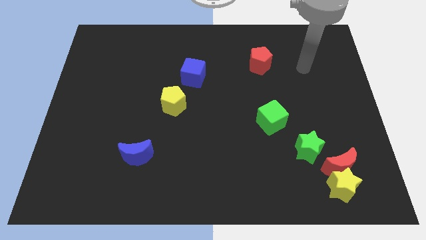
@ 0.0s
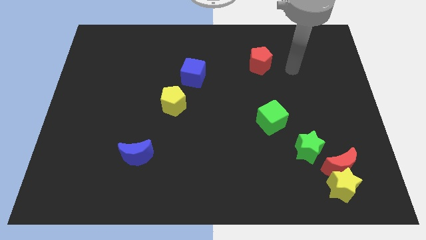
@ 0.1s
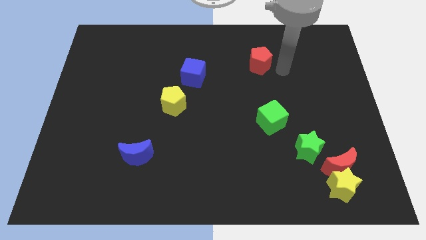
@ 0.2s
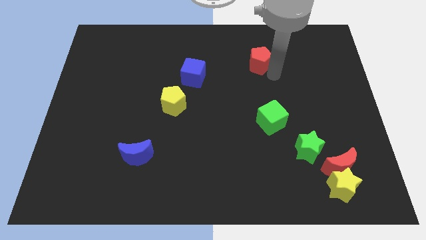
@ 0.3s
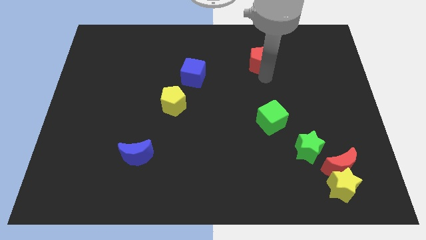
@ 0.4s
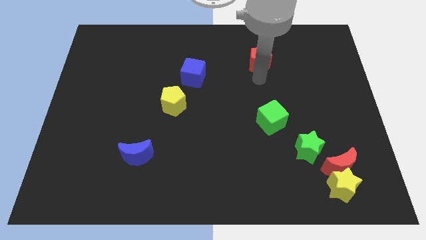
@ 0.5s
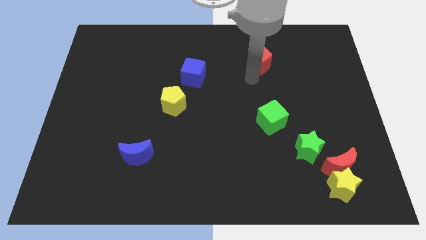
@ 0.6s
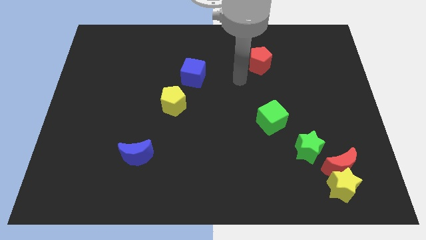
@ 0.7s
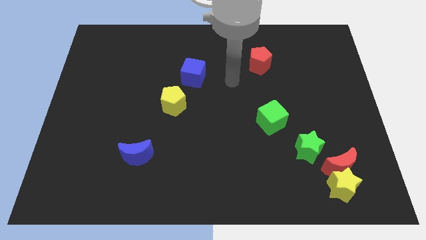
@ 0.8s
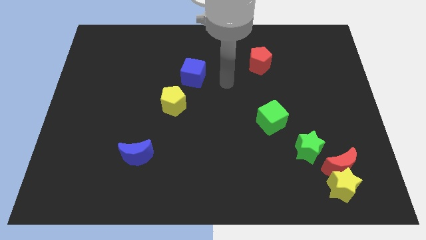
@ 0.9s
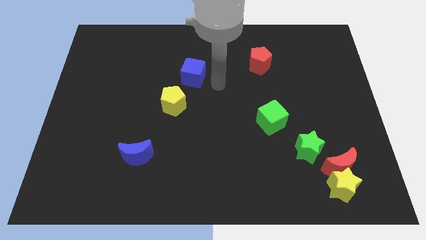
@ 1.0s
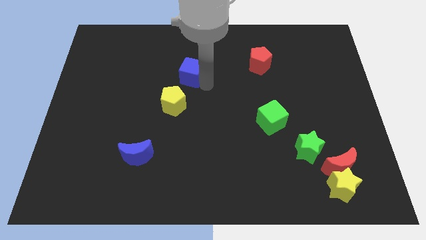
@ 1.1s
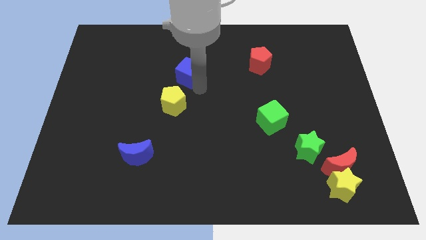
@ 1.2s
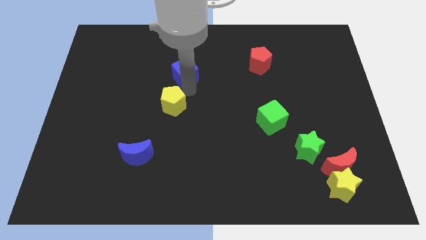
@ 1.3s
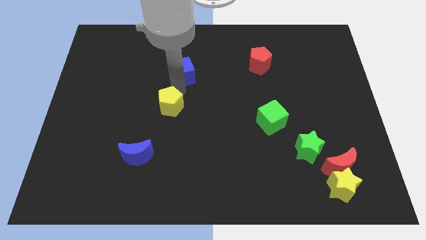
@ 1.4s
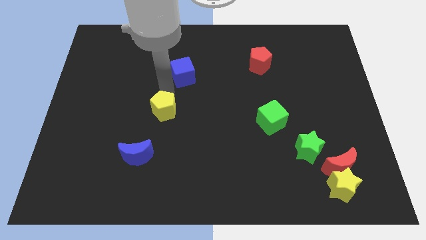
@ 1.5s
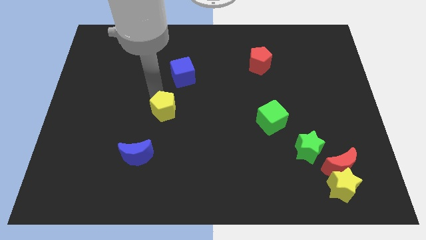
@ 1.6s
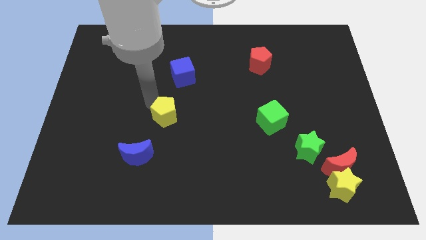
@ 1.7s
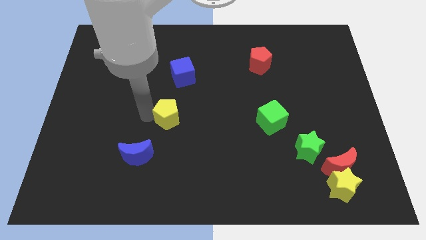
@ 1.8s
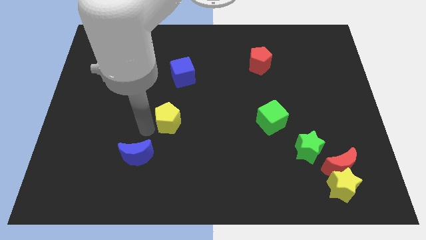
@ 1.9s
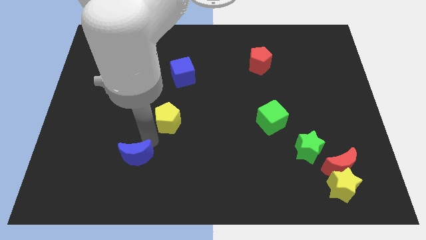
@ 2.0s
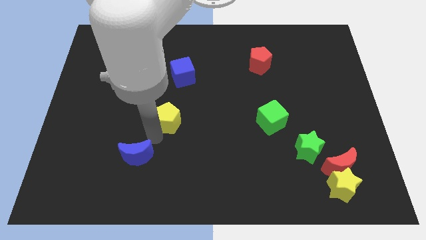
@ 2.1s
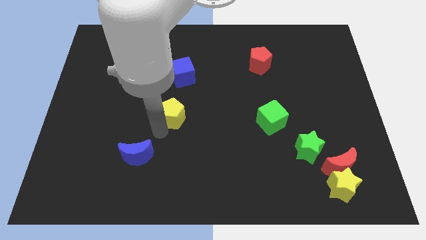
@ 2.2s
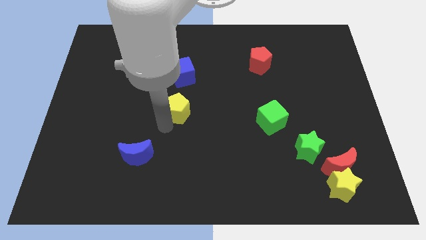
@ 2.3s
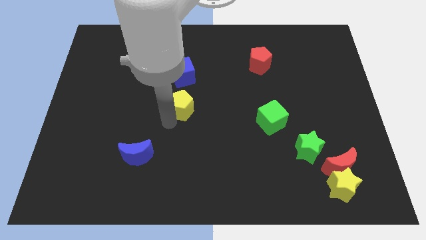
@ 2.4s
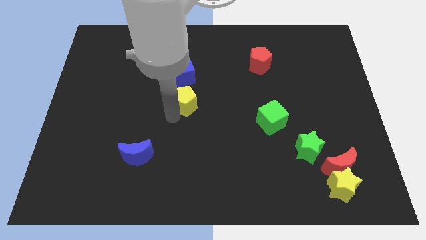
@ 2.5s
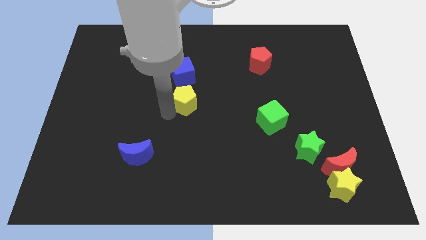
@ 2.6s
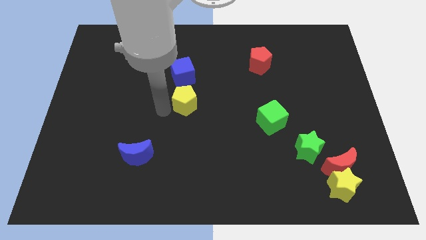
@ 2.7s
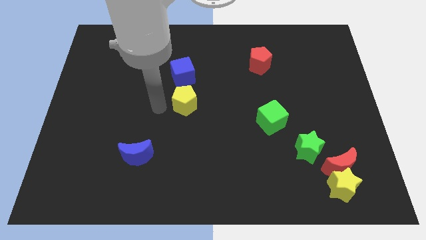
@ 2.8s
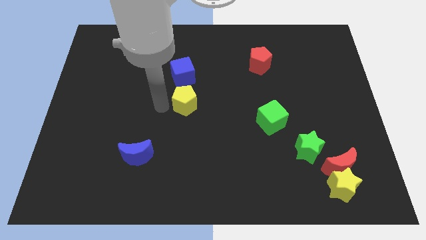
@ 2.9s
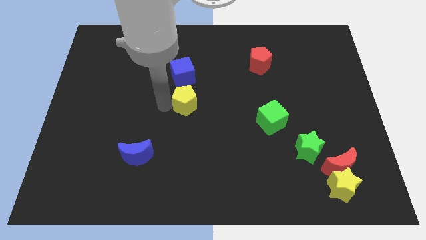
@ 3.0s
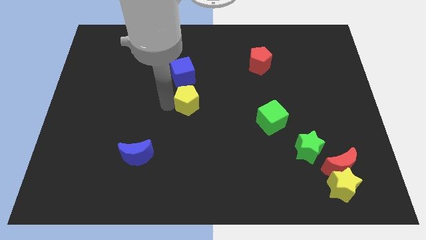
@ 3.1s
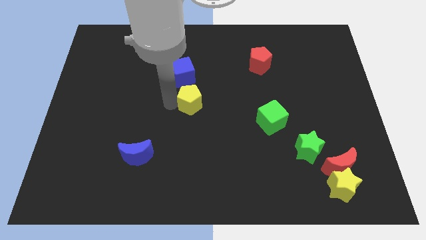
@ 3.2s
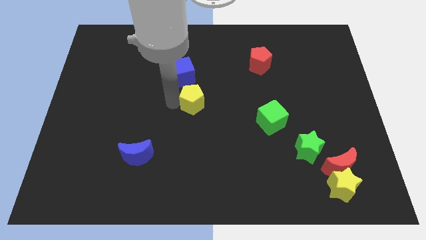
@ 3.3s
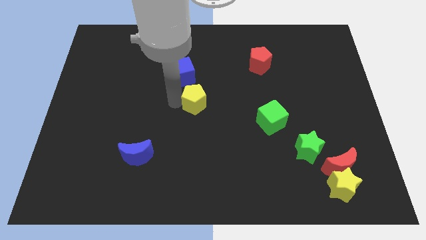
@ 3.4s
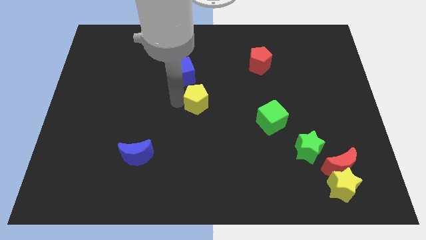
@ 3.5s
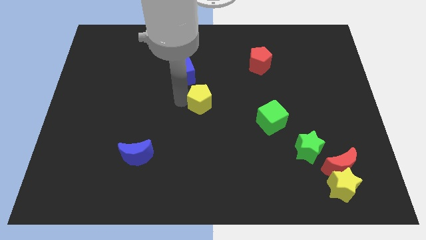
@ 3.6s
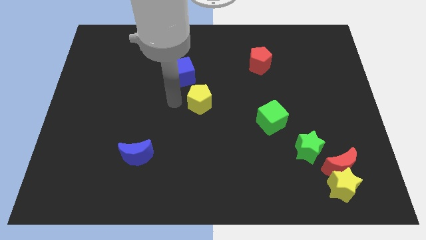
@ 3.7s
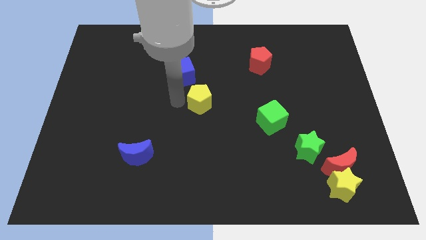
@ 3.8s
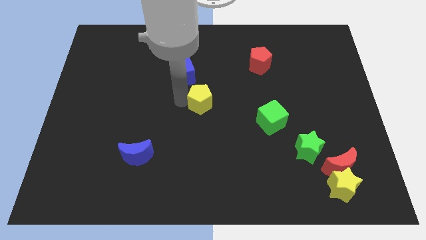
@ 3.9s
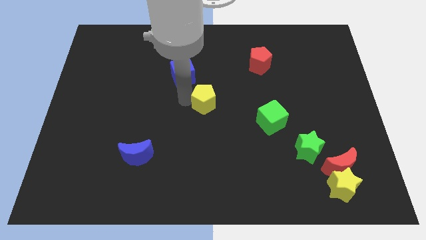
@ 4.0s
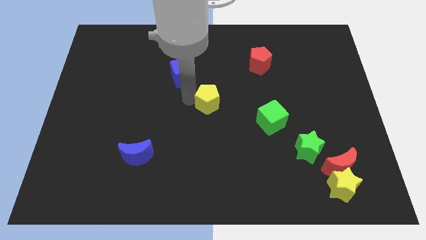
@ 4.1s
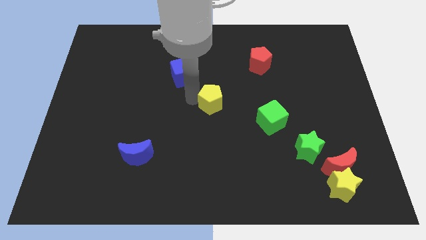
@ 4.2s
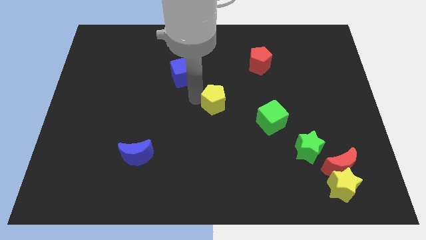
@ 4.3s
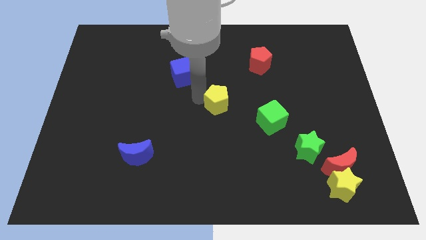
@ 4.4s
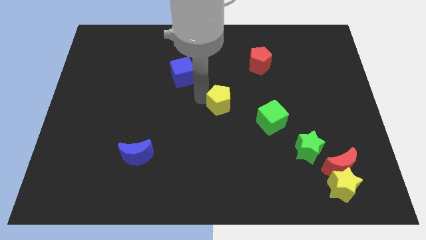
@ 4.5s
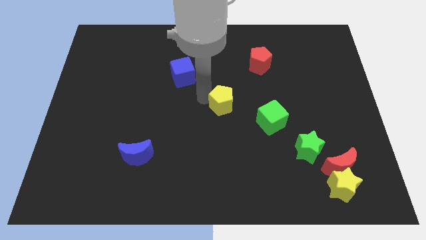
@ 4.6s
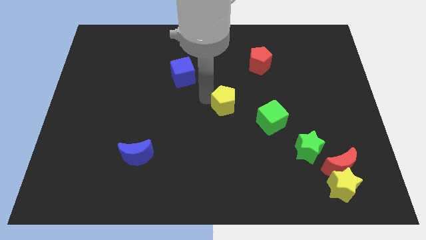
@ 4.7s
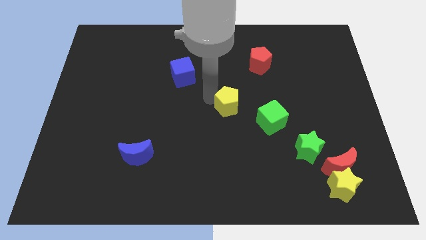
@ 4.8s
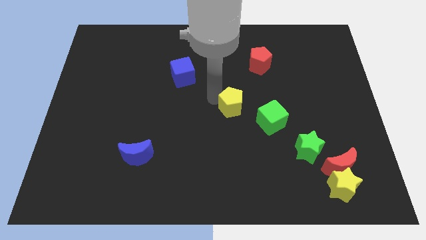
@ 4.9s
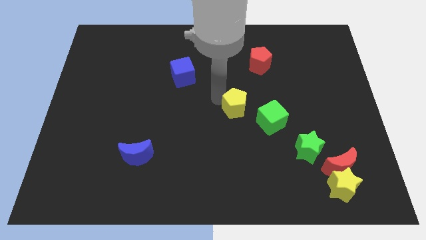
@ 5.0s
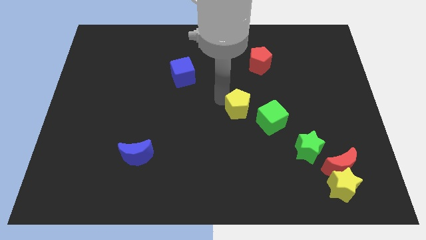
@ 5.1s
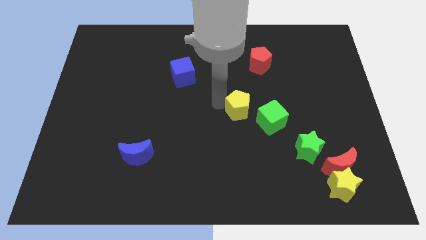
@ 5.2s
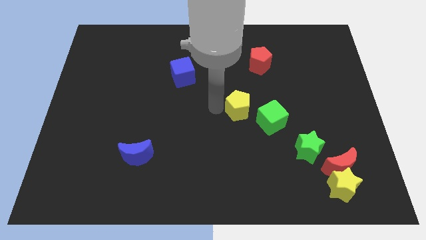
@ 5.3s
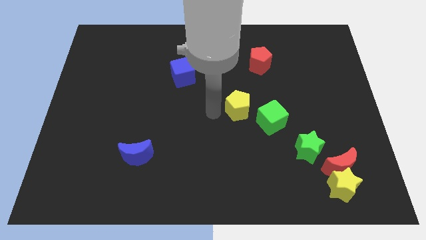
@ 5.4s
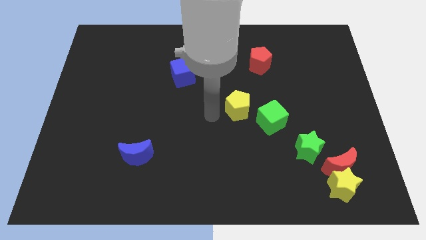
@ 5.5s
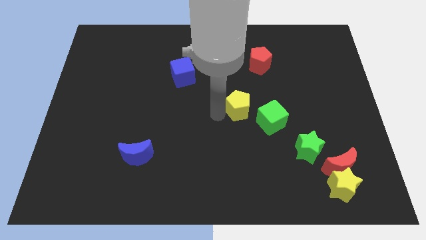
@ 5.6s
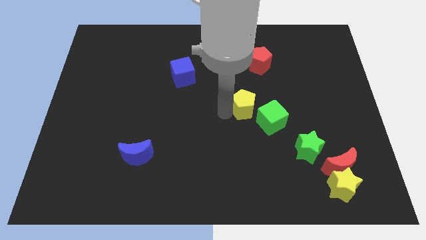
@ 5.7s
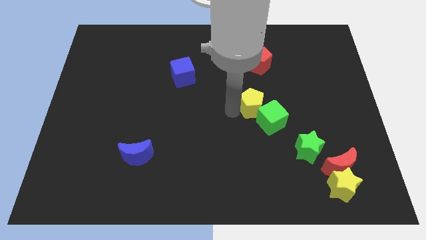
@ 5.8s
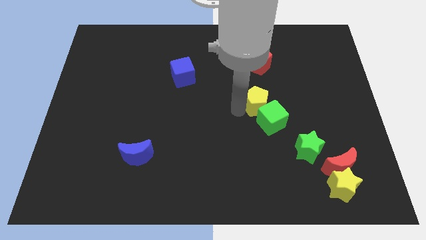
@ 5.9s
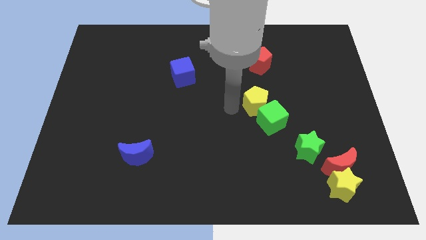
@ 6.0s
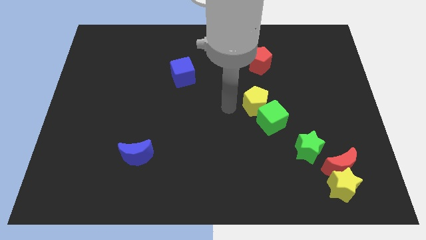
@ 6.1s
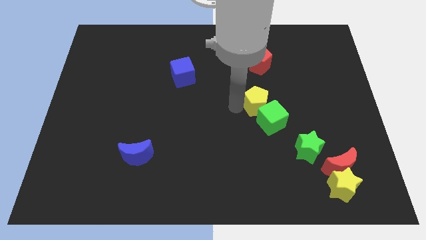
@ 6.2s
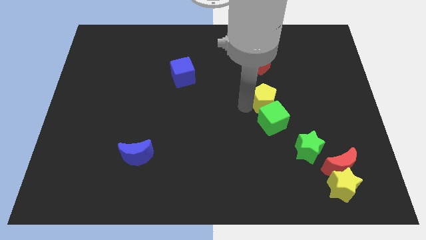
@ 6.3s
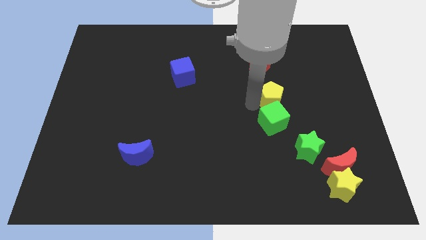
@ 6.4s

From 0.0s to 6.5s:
push the yellow pentagon diagonally up and to the right of the green cube

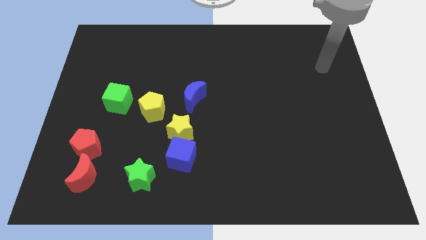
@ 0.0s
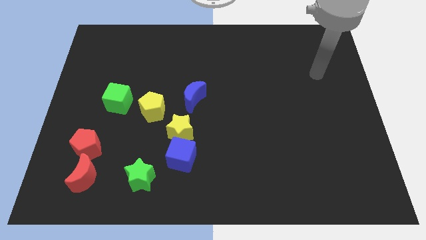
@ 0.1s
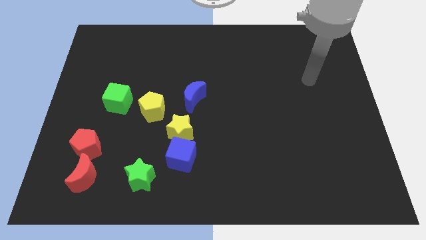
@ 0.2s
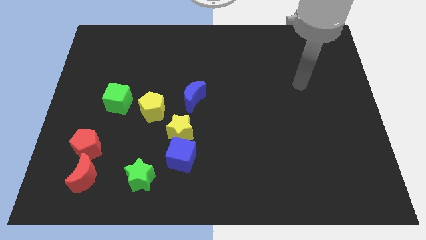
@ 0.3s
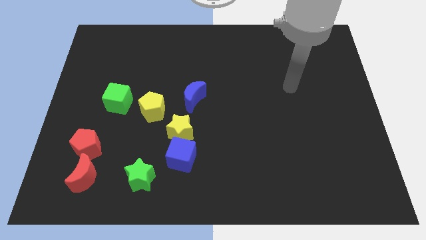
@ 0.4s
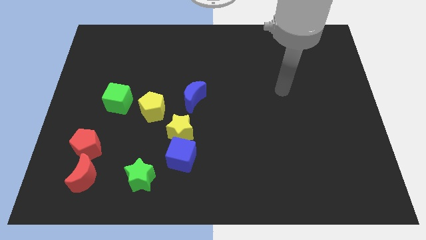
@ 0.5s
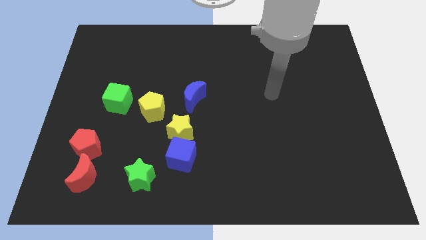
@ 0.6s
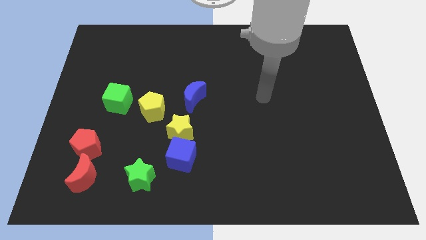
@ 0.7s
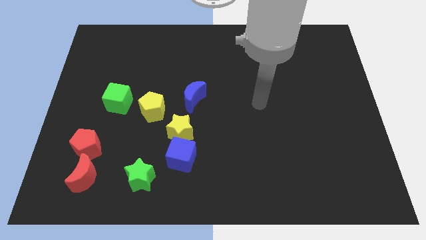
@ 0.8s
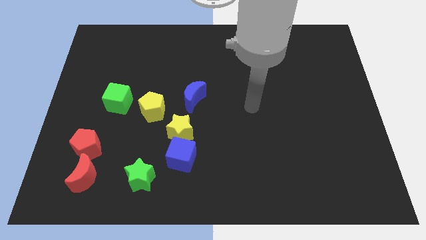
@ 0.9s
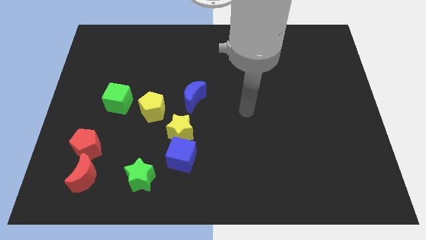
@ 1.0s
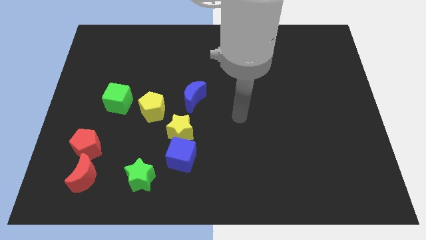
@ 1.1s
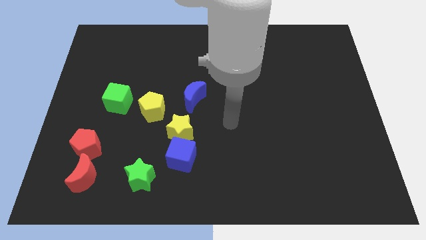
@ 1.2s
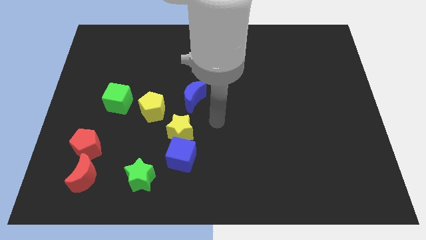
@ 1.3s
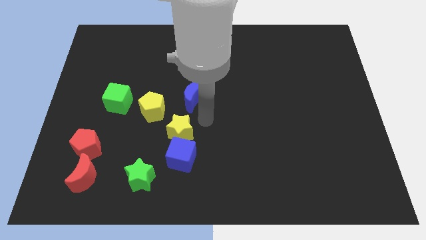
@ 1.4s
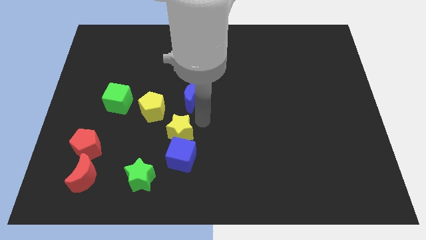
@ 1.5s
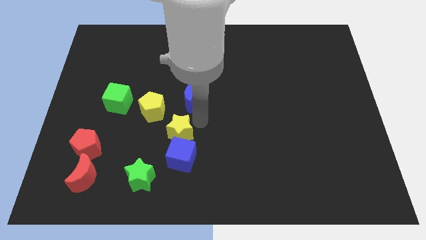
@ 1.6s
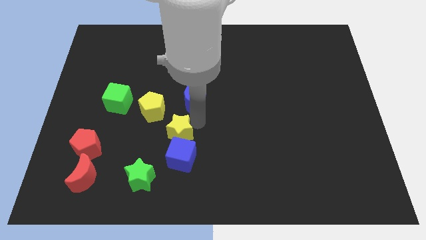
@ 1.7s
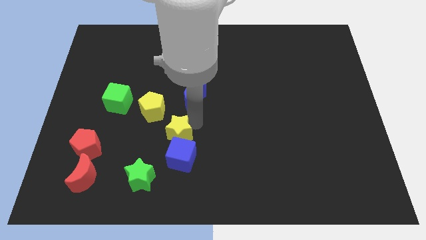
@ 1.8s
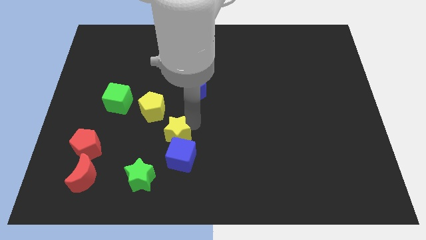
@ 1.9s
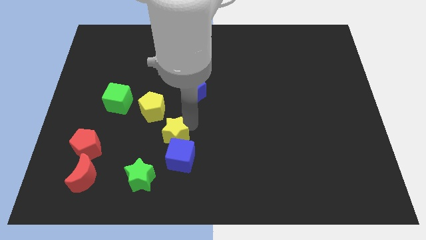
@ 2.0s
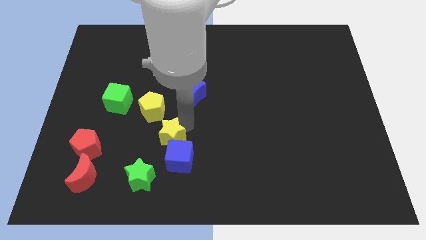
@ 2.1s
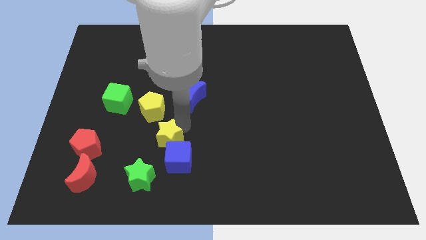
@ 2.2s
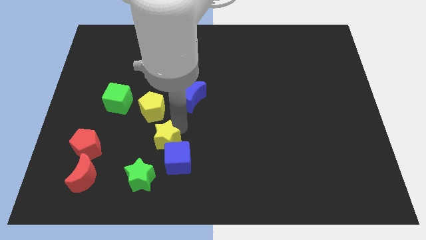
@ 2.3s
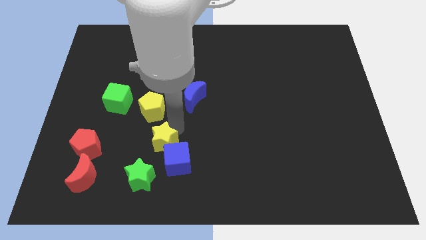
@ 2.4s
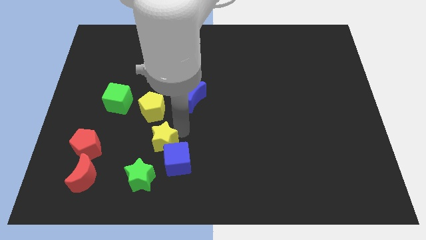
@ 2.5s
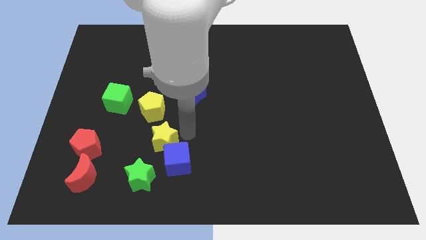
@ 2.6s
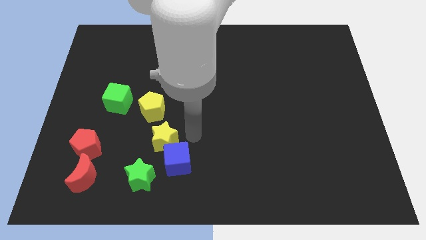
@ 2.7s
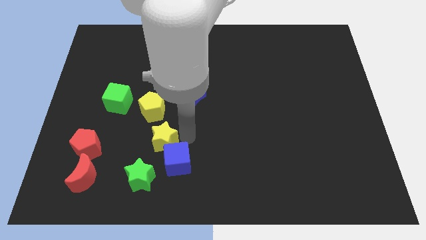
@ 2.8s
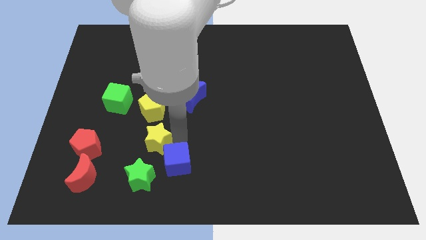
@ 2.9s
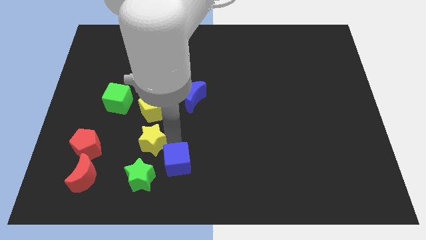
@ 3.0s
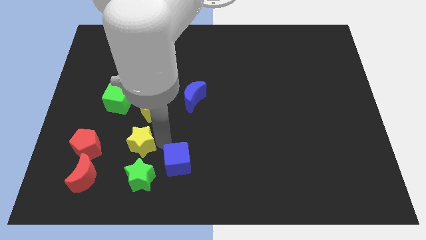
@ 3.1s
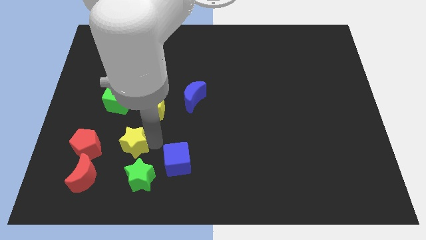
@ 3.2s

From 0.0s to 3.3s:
push the yellow star to the top right side of the red moon
